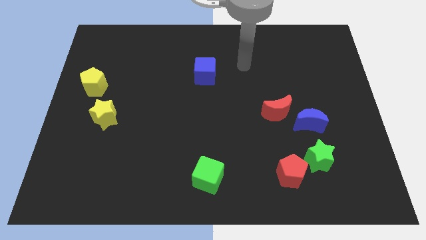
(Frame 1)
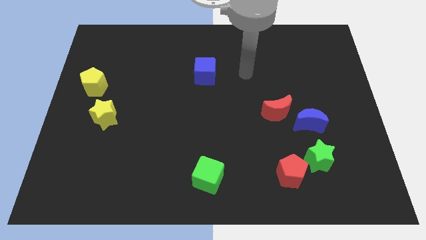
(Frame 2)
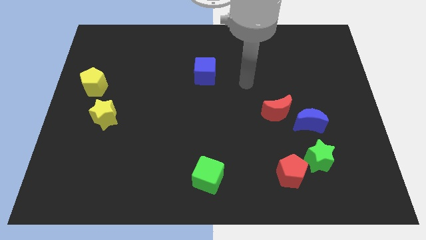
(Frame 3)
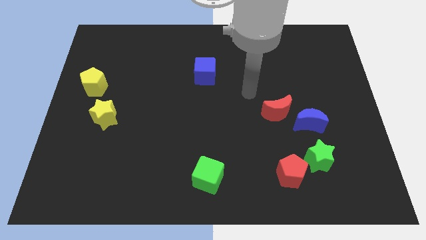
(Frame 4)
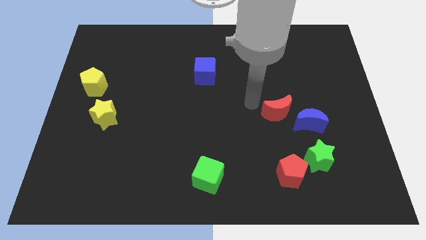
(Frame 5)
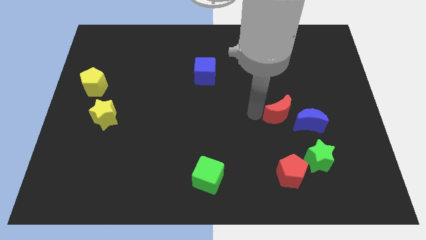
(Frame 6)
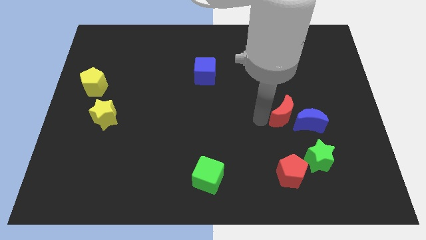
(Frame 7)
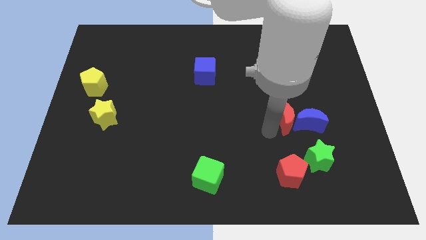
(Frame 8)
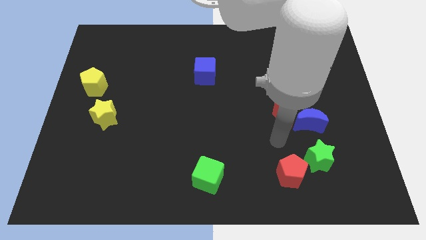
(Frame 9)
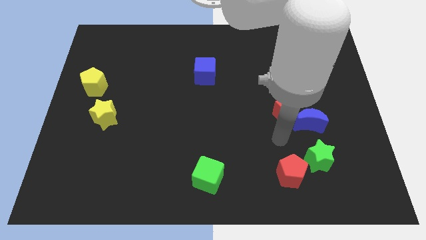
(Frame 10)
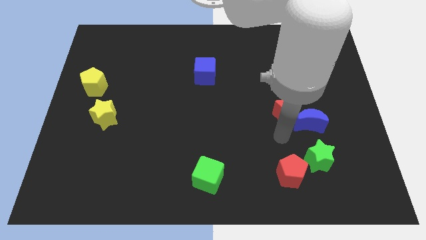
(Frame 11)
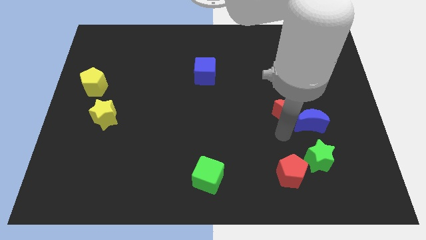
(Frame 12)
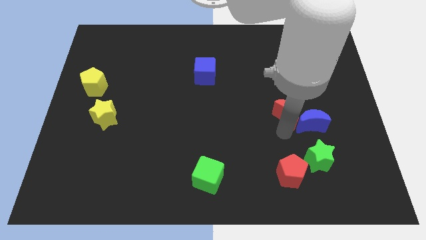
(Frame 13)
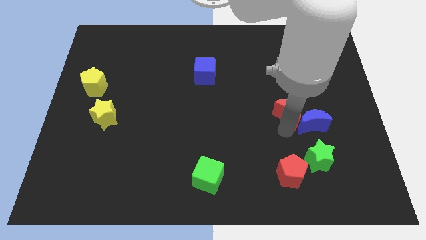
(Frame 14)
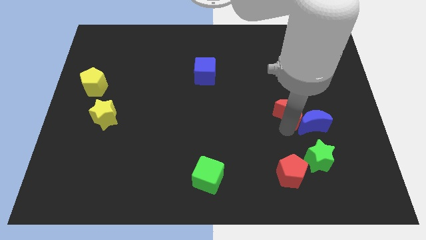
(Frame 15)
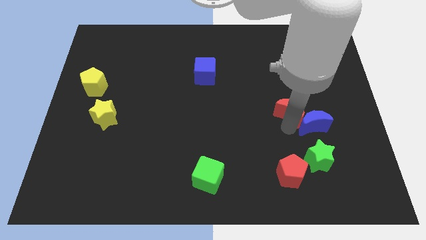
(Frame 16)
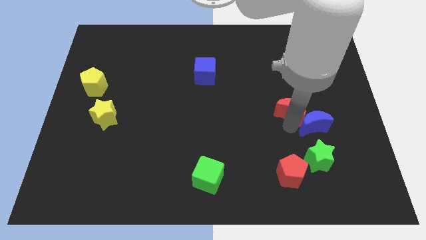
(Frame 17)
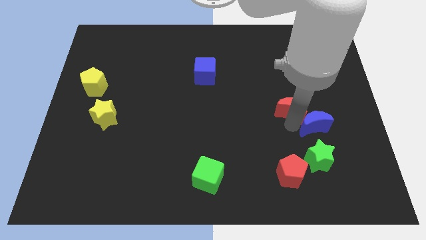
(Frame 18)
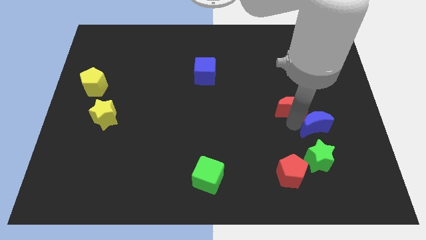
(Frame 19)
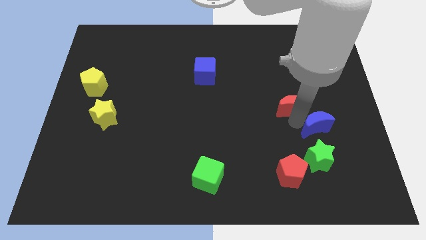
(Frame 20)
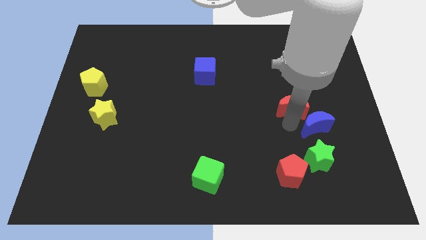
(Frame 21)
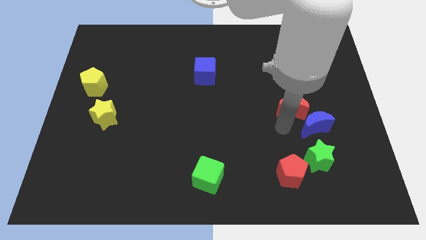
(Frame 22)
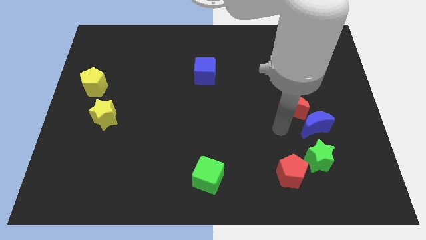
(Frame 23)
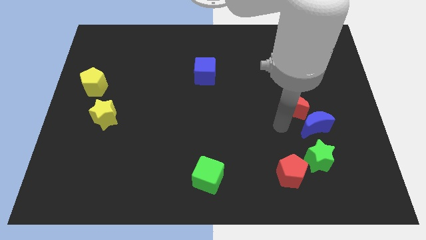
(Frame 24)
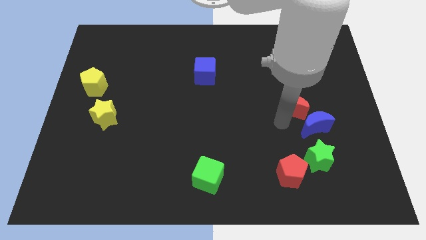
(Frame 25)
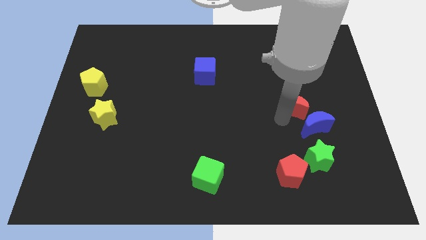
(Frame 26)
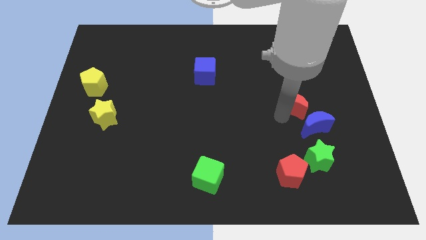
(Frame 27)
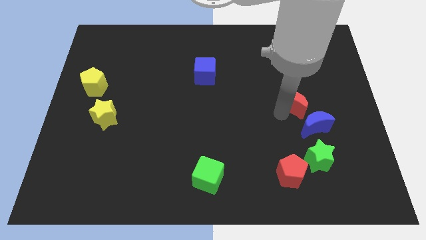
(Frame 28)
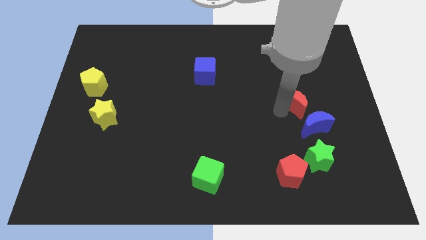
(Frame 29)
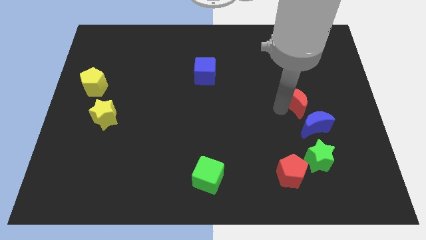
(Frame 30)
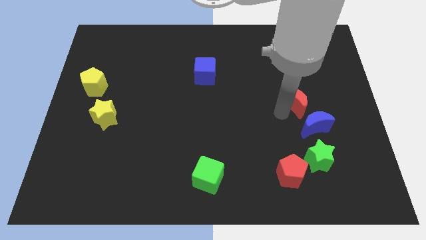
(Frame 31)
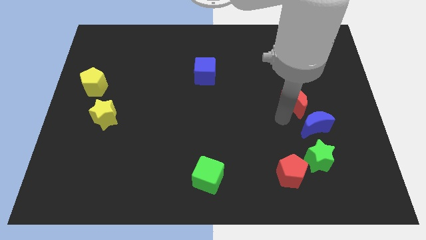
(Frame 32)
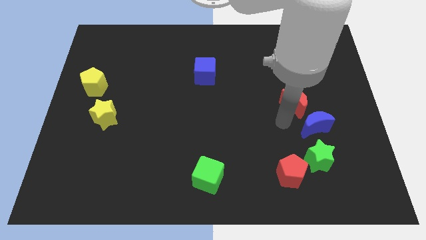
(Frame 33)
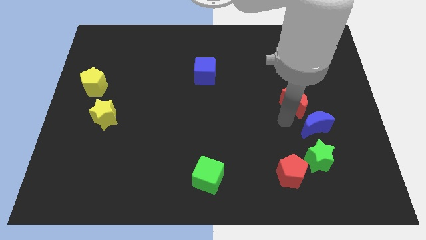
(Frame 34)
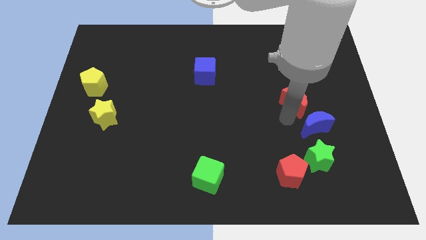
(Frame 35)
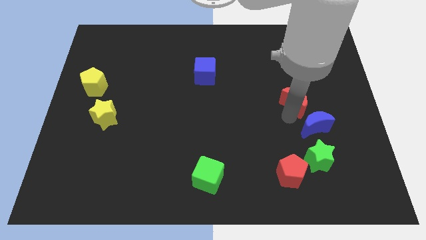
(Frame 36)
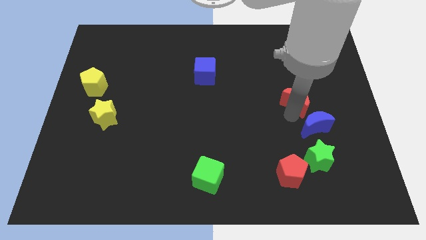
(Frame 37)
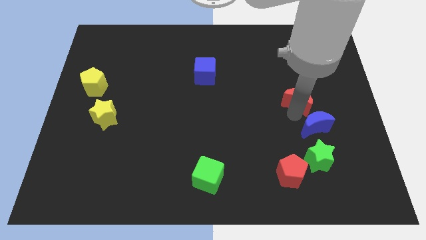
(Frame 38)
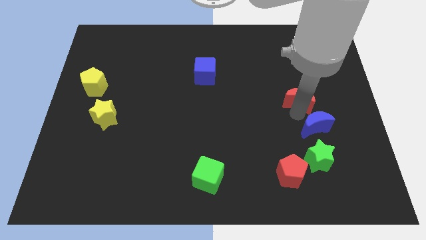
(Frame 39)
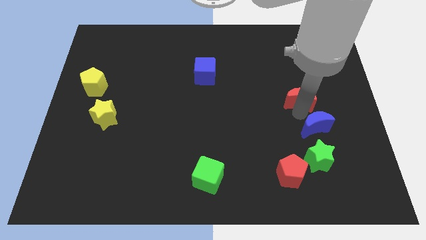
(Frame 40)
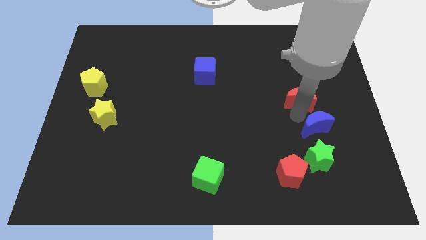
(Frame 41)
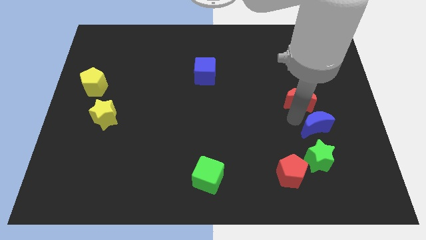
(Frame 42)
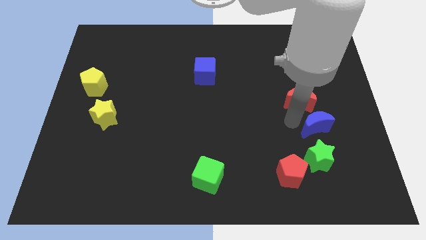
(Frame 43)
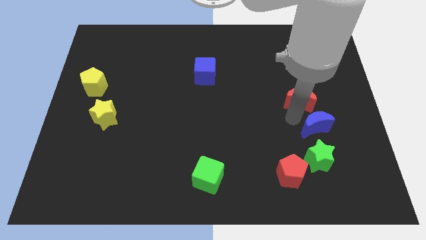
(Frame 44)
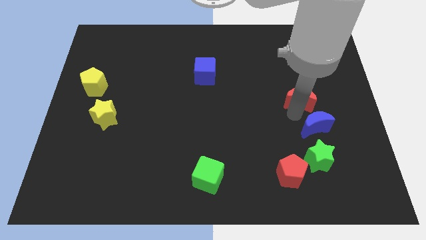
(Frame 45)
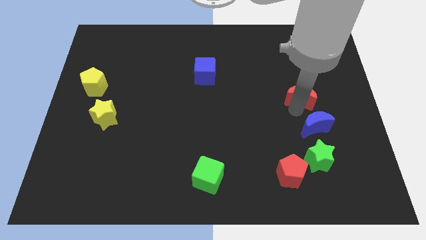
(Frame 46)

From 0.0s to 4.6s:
slightly slide the red moon up and right

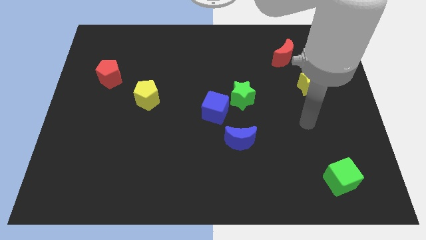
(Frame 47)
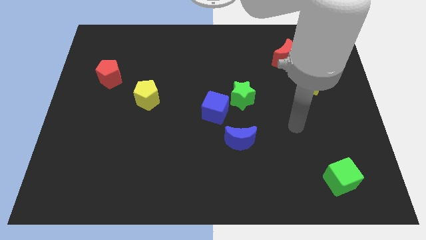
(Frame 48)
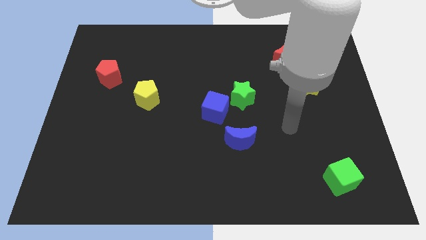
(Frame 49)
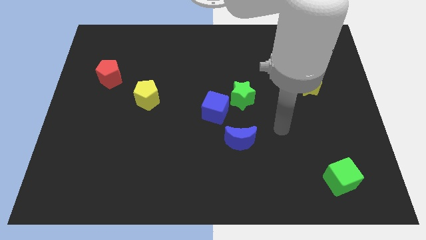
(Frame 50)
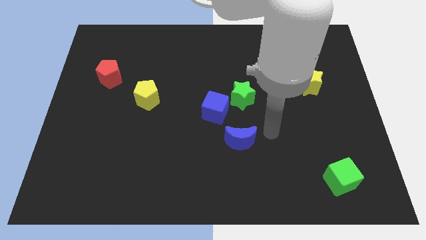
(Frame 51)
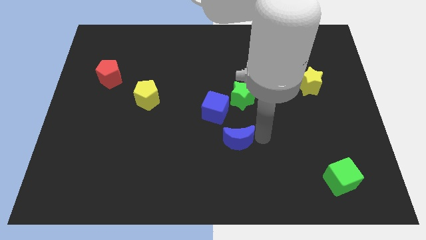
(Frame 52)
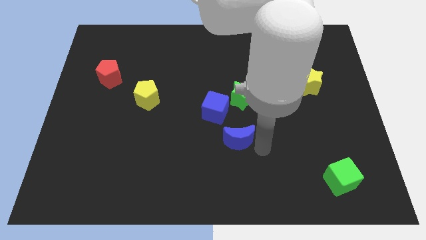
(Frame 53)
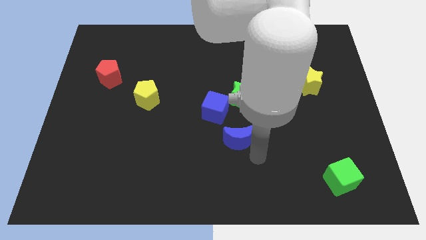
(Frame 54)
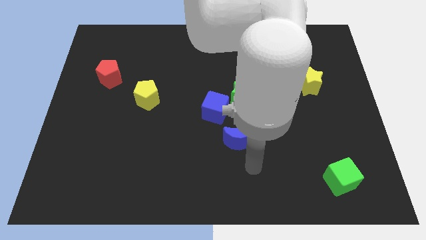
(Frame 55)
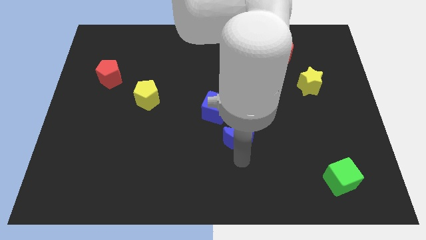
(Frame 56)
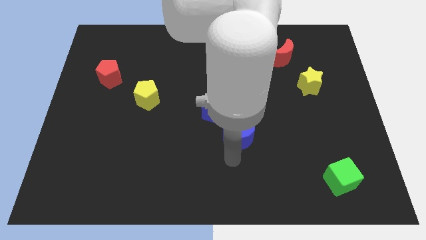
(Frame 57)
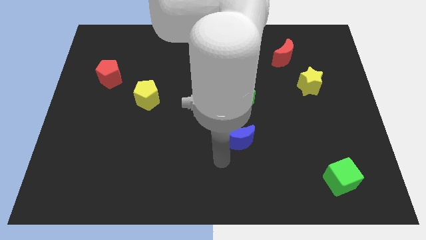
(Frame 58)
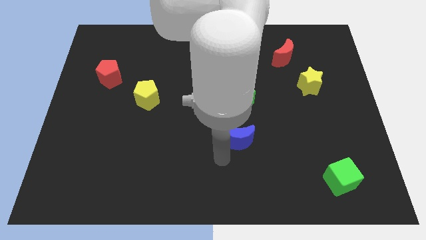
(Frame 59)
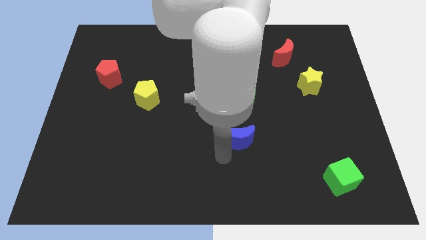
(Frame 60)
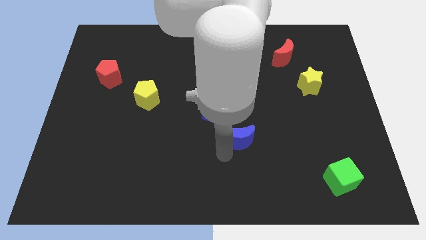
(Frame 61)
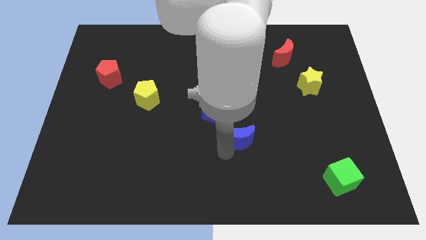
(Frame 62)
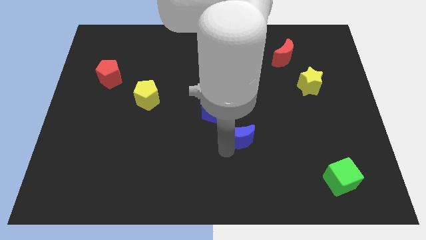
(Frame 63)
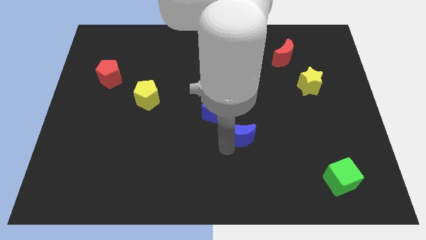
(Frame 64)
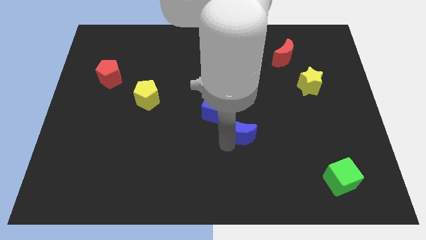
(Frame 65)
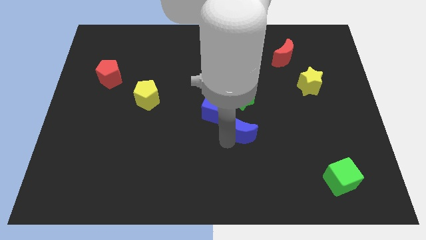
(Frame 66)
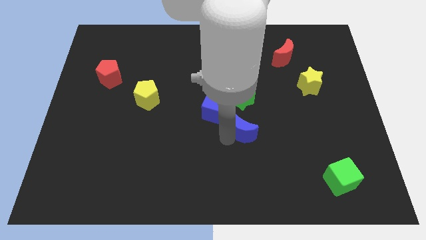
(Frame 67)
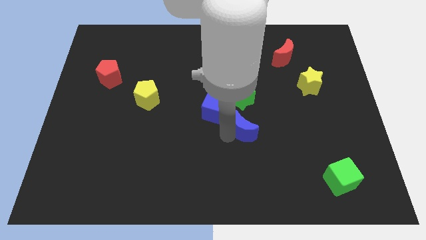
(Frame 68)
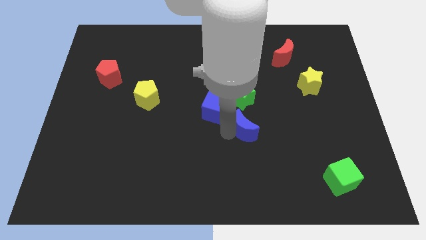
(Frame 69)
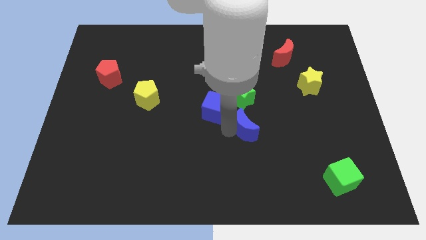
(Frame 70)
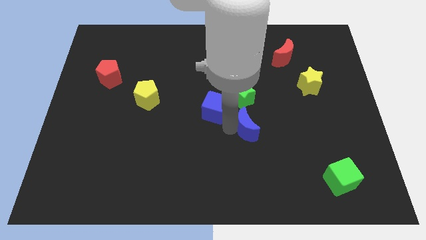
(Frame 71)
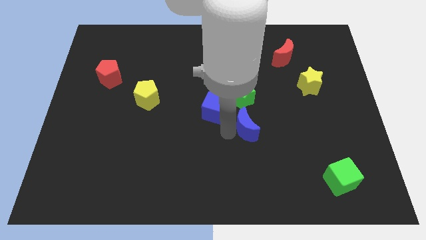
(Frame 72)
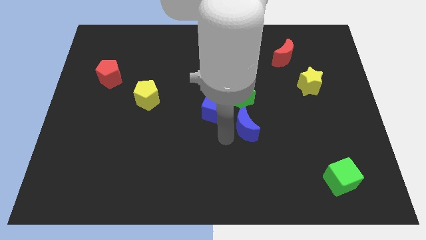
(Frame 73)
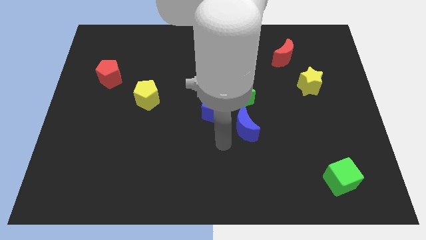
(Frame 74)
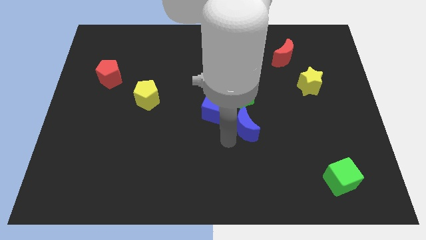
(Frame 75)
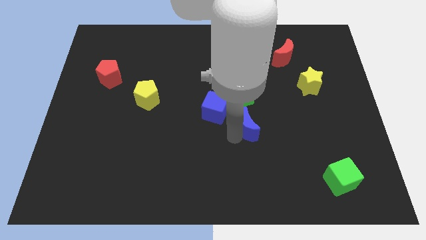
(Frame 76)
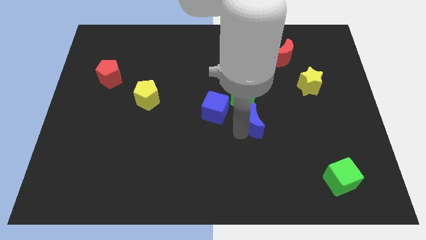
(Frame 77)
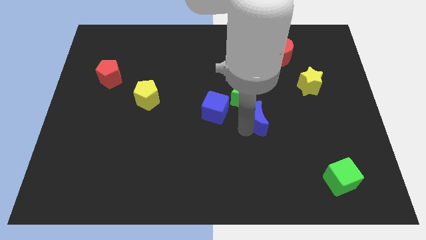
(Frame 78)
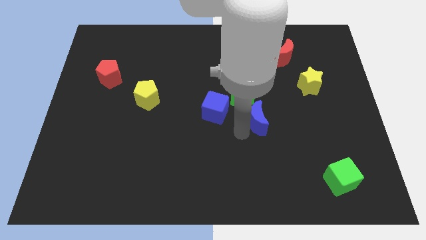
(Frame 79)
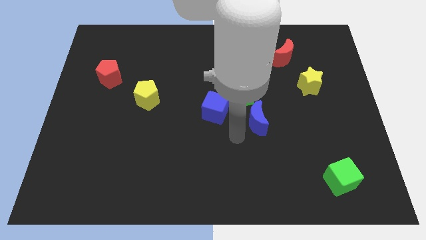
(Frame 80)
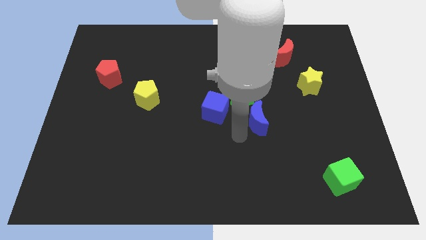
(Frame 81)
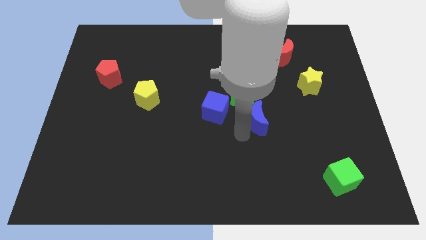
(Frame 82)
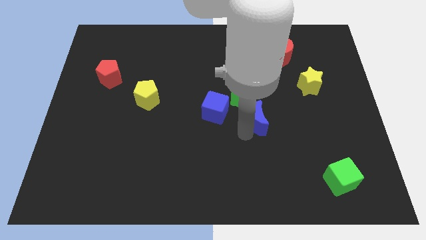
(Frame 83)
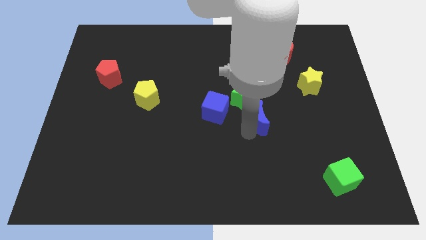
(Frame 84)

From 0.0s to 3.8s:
move the blue moon slightly upwards and to the right
